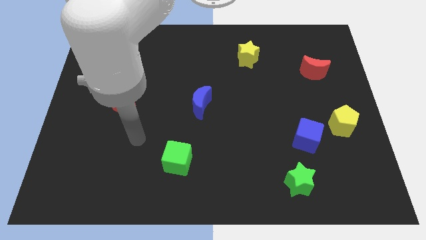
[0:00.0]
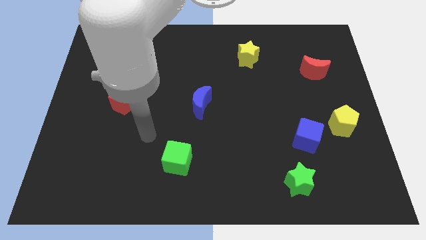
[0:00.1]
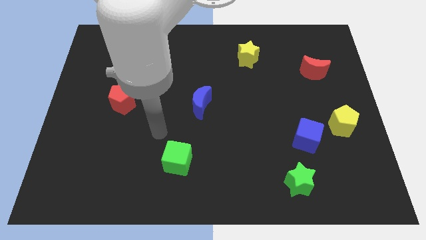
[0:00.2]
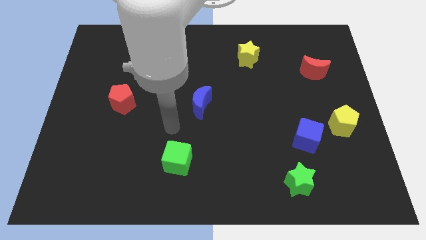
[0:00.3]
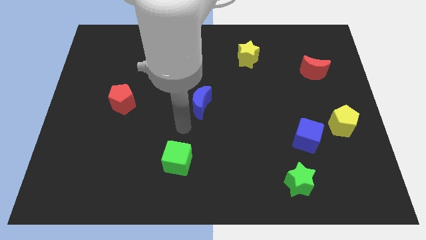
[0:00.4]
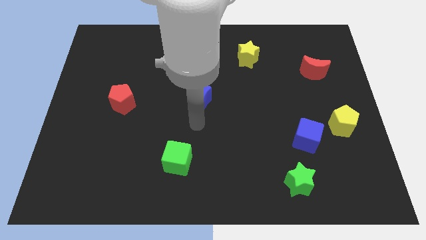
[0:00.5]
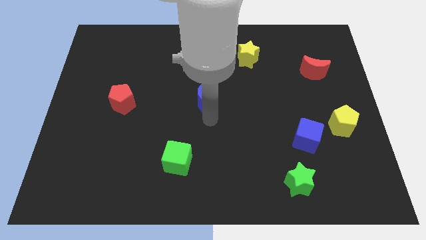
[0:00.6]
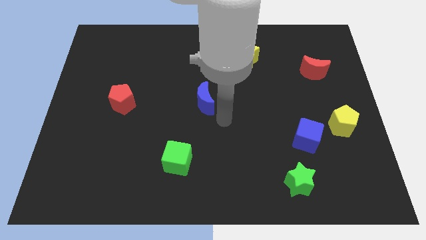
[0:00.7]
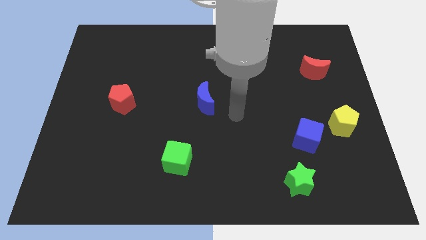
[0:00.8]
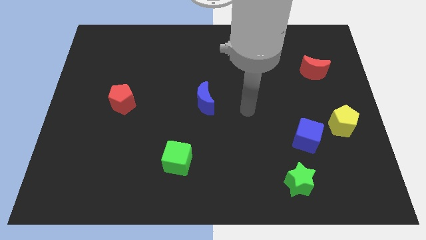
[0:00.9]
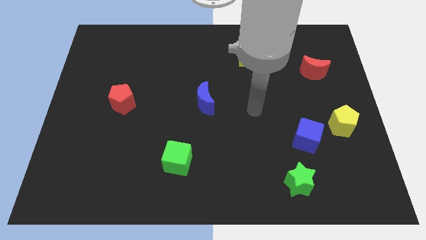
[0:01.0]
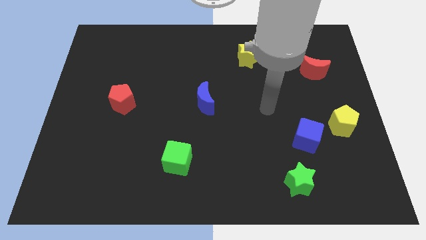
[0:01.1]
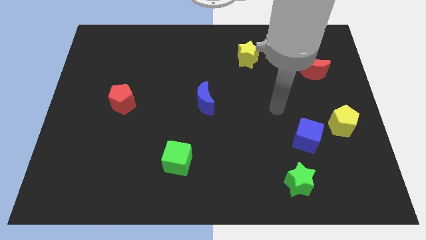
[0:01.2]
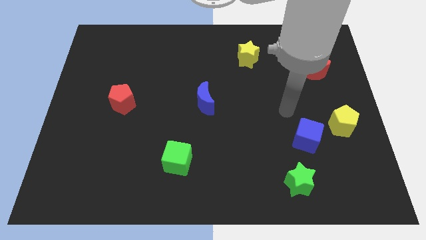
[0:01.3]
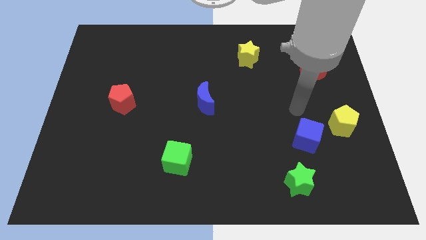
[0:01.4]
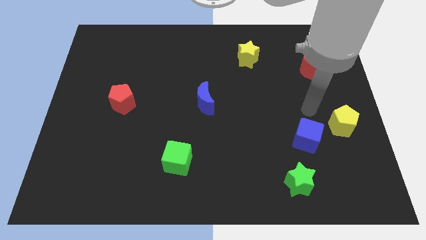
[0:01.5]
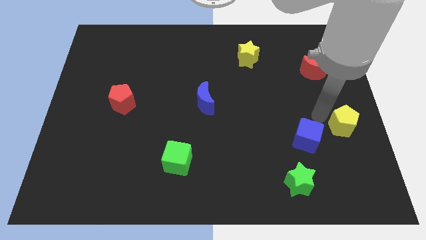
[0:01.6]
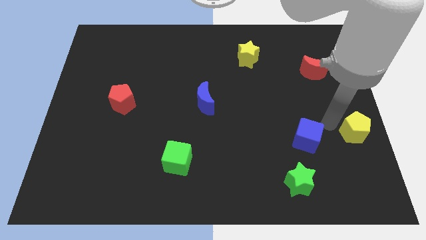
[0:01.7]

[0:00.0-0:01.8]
move the blue cube away from the yellow pentagon

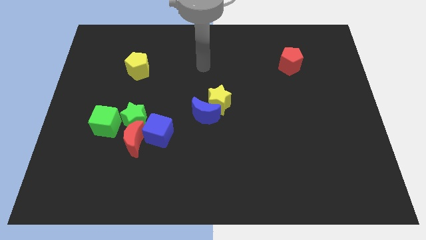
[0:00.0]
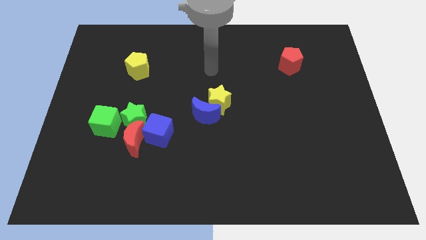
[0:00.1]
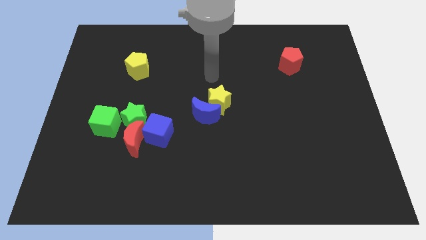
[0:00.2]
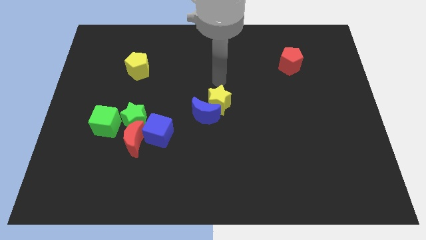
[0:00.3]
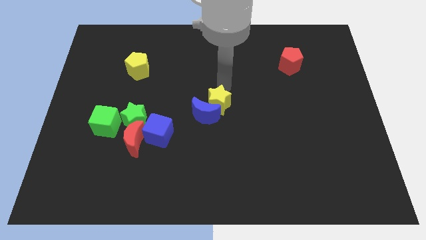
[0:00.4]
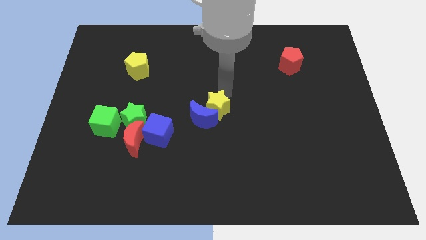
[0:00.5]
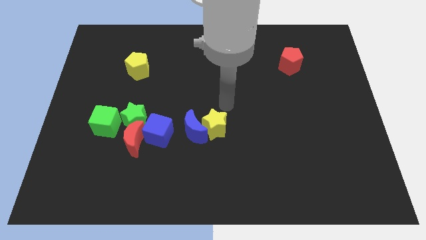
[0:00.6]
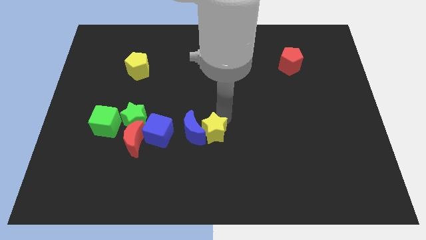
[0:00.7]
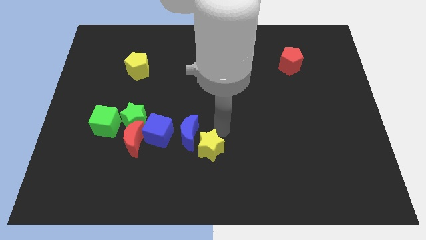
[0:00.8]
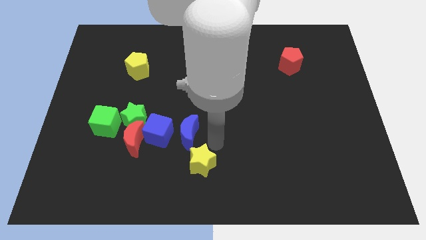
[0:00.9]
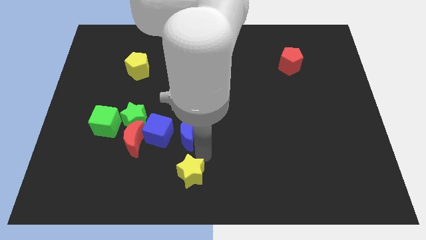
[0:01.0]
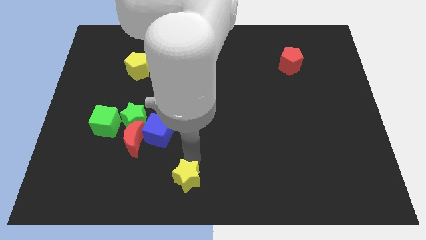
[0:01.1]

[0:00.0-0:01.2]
separate the blue moon from the yellow star

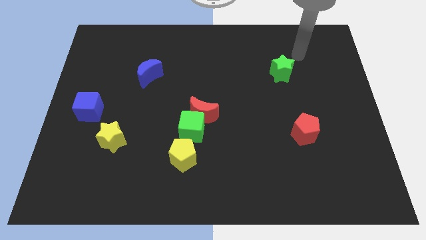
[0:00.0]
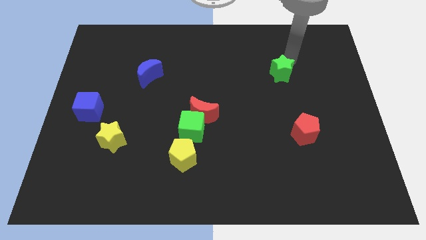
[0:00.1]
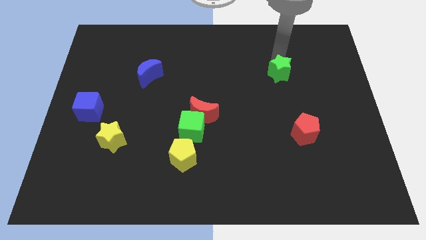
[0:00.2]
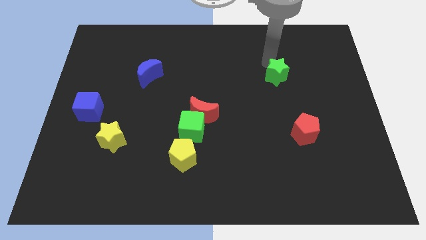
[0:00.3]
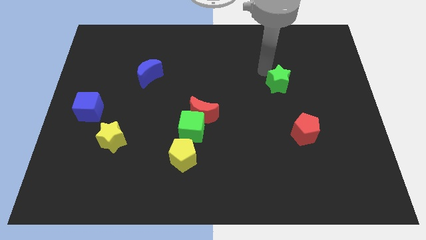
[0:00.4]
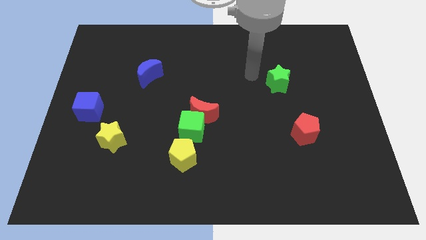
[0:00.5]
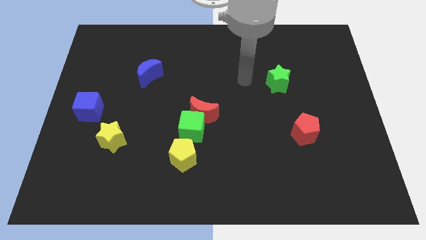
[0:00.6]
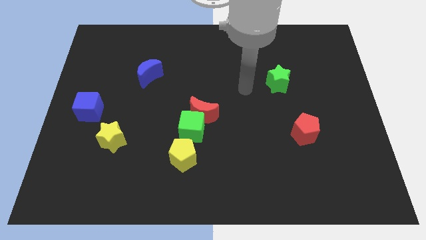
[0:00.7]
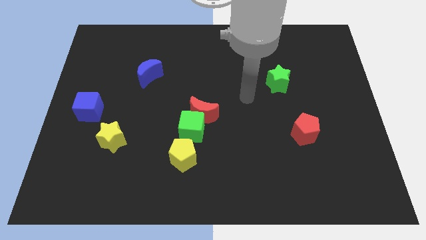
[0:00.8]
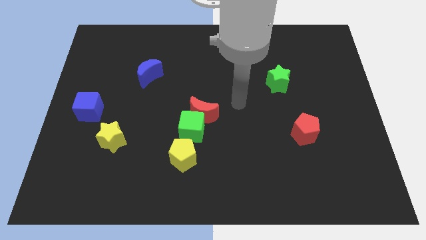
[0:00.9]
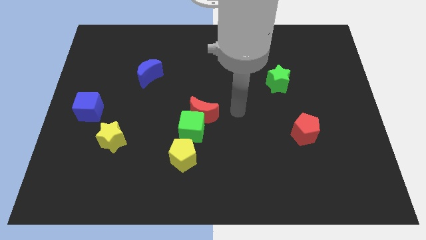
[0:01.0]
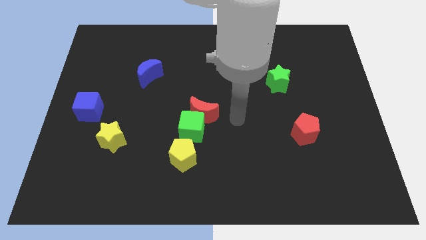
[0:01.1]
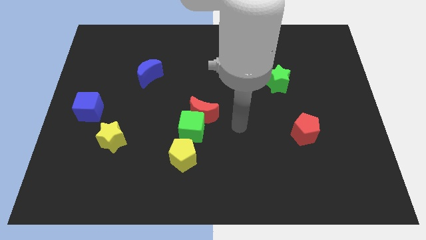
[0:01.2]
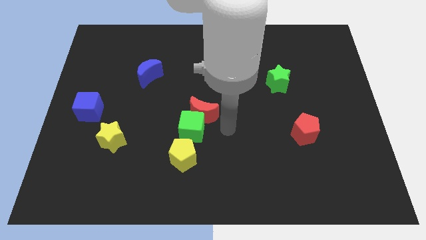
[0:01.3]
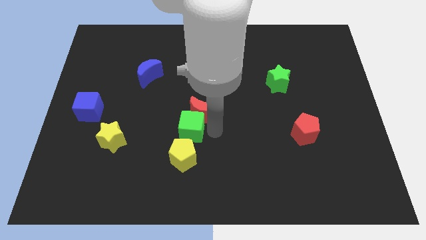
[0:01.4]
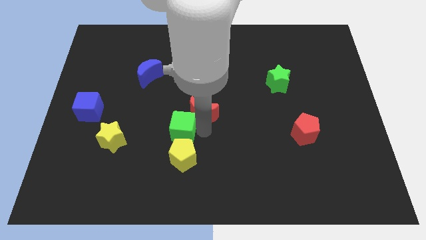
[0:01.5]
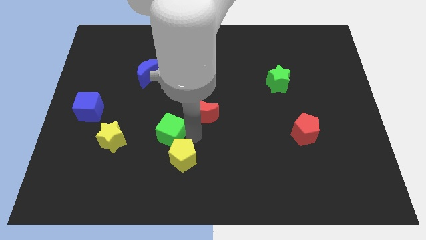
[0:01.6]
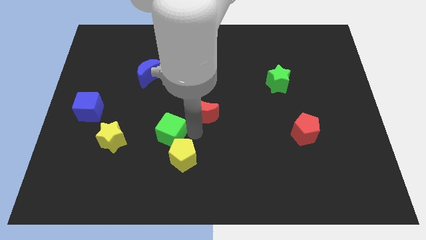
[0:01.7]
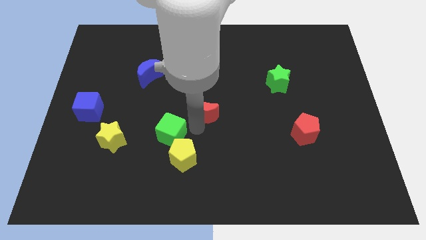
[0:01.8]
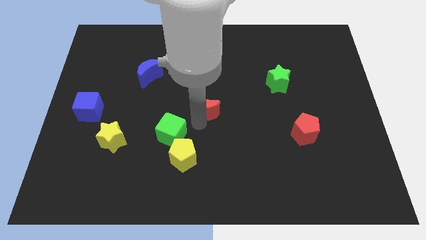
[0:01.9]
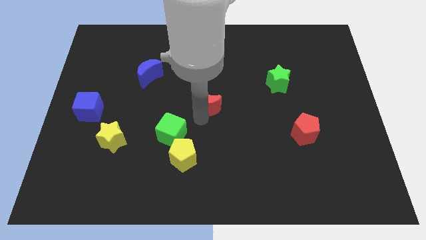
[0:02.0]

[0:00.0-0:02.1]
move the red moon away from the green cube

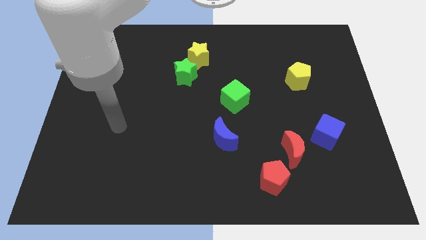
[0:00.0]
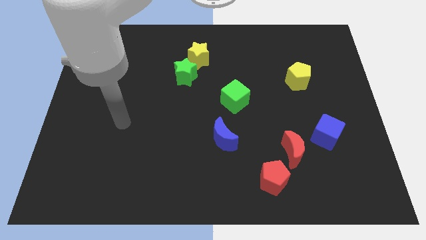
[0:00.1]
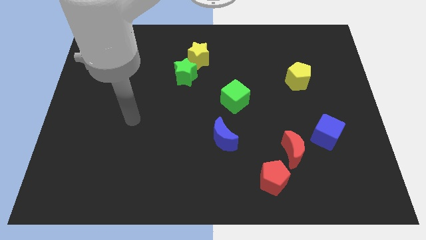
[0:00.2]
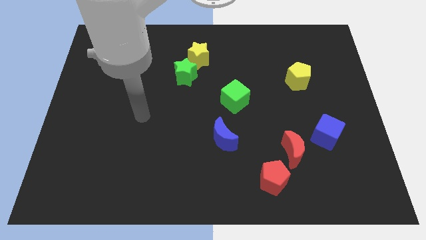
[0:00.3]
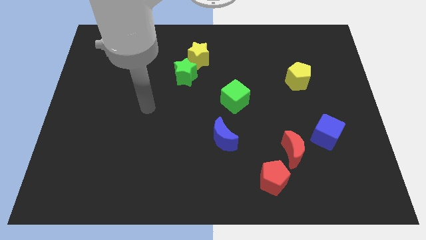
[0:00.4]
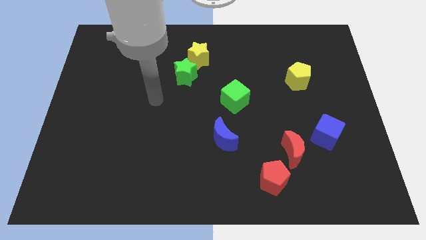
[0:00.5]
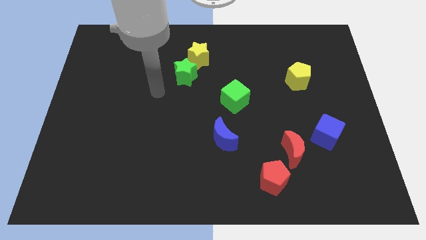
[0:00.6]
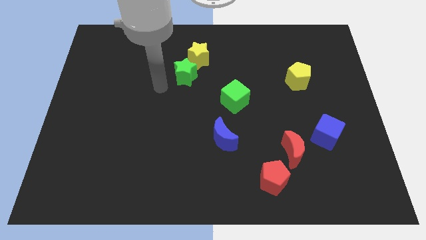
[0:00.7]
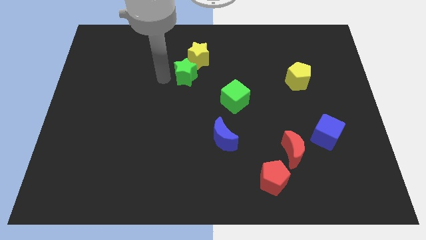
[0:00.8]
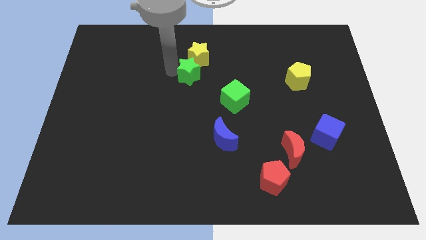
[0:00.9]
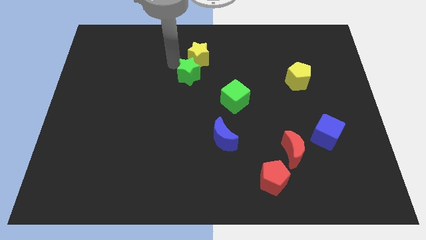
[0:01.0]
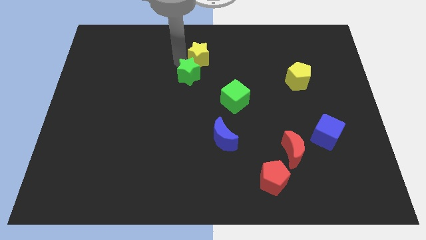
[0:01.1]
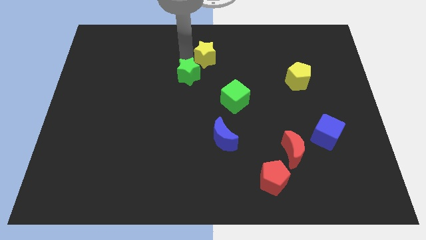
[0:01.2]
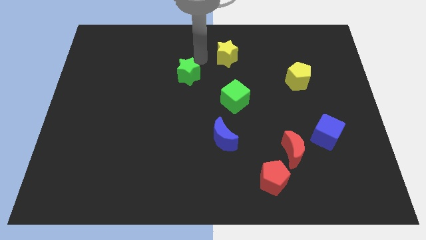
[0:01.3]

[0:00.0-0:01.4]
move the green star away from the yellow star

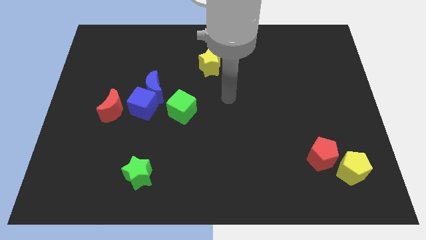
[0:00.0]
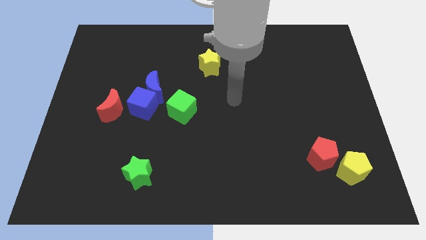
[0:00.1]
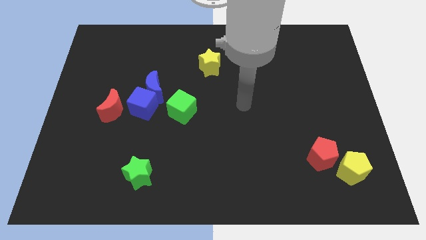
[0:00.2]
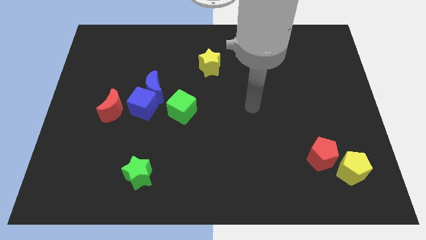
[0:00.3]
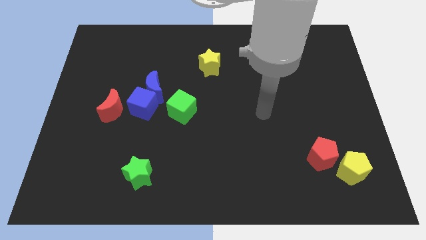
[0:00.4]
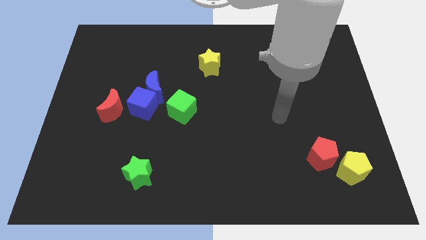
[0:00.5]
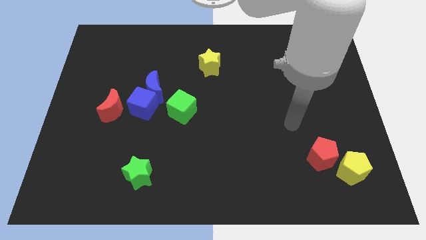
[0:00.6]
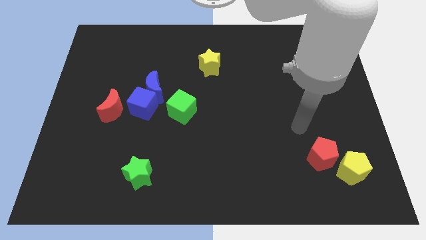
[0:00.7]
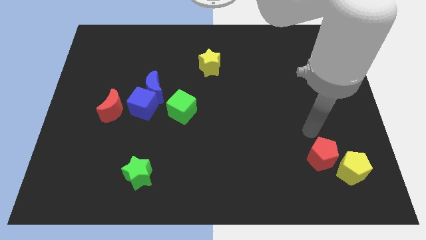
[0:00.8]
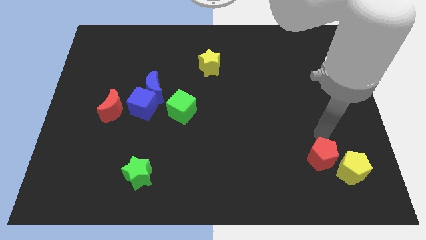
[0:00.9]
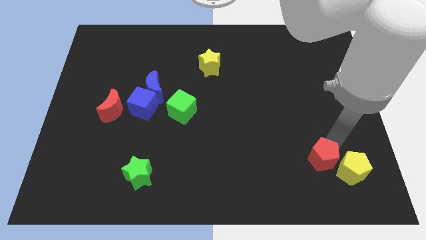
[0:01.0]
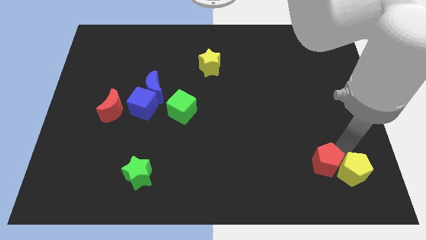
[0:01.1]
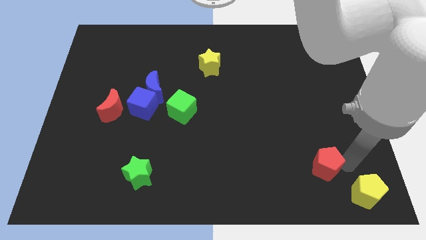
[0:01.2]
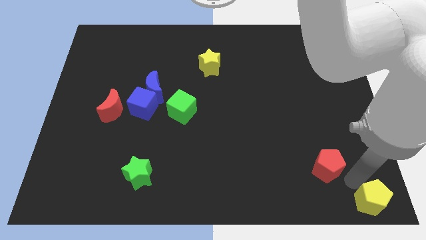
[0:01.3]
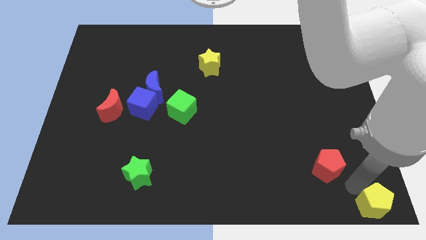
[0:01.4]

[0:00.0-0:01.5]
move the red pentagon away from the yellow pentagon

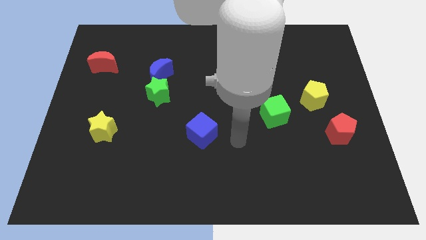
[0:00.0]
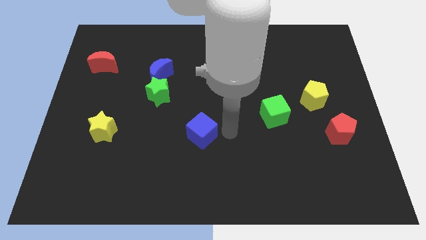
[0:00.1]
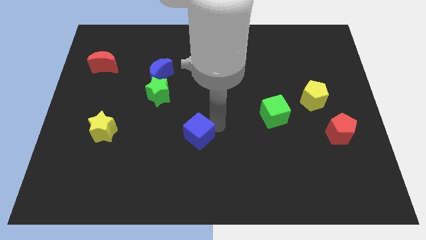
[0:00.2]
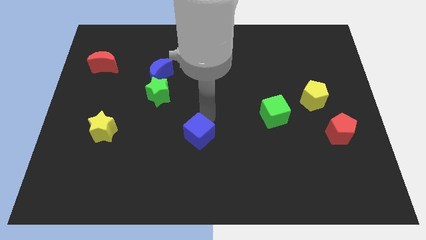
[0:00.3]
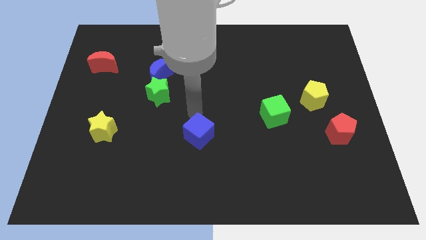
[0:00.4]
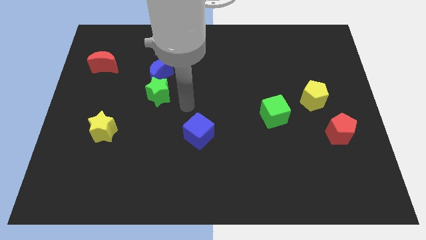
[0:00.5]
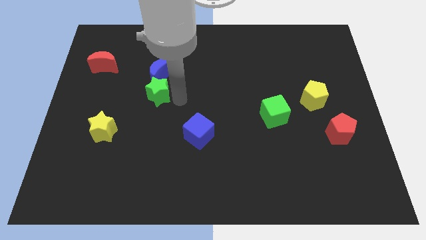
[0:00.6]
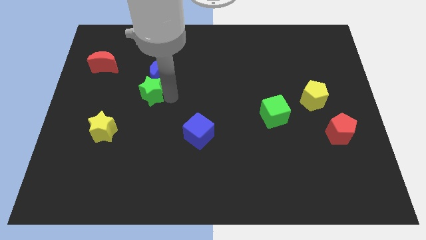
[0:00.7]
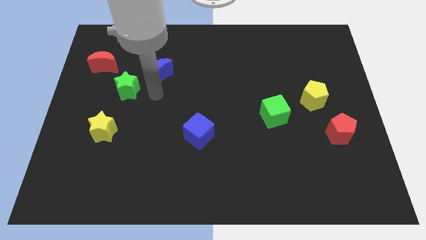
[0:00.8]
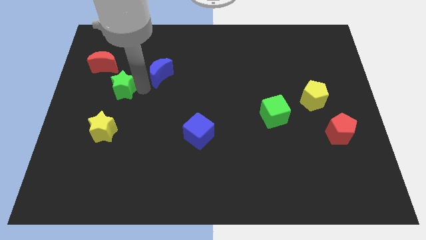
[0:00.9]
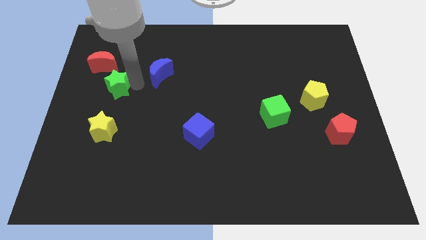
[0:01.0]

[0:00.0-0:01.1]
move the blue moon away from the green star

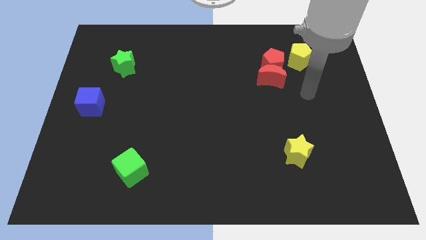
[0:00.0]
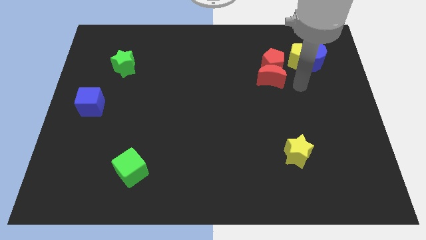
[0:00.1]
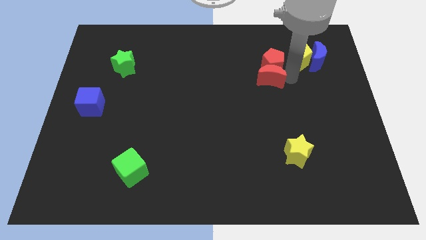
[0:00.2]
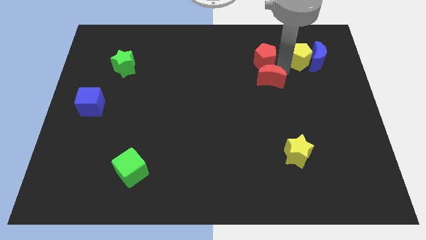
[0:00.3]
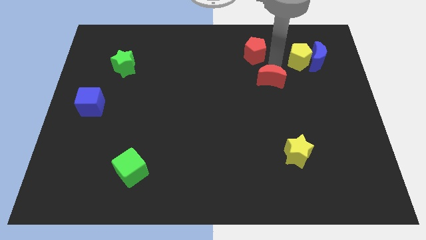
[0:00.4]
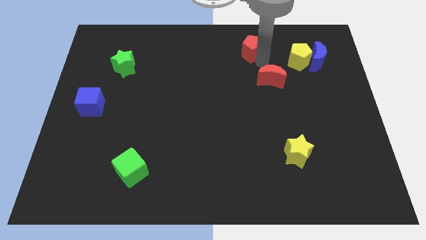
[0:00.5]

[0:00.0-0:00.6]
separate the red moon from the red pentagon
